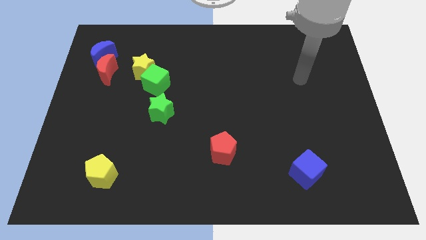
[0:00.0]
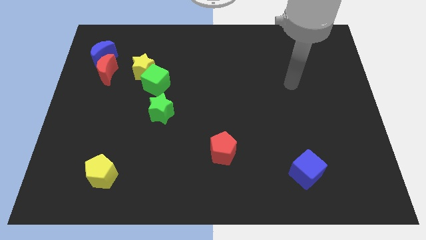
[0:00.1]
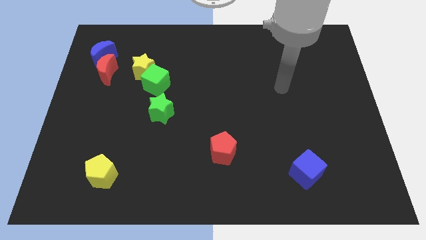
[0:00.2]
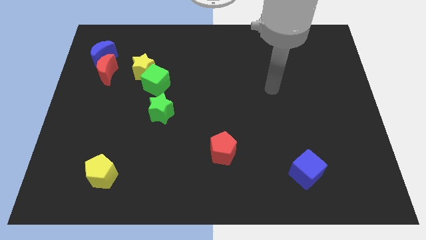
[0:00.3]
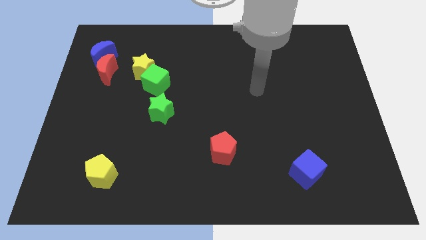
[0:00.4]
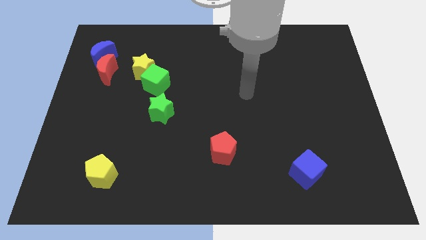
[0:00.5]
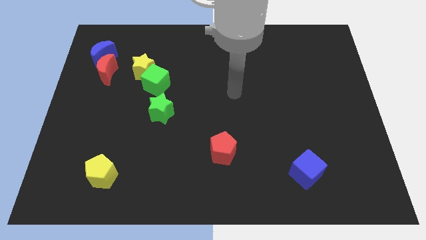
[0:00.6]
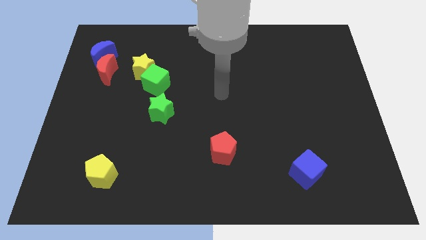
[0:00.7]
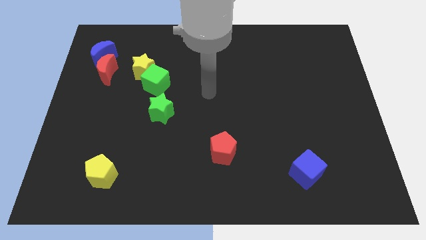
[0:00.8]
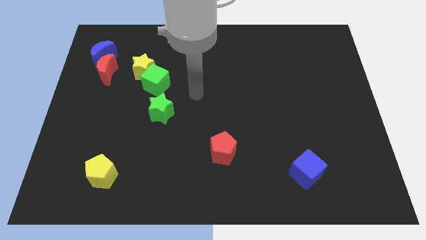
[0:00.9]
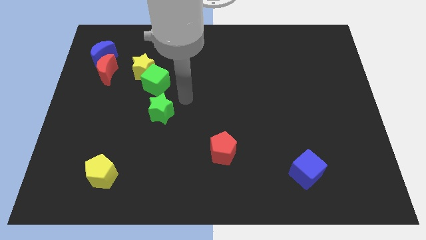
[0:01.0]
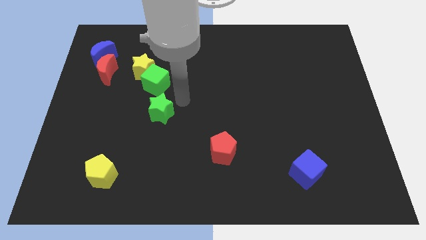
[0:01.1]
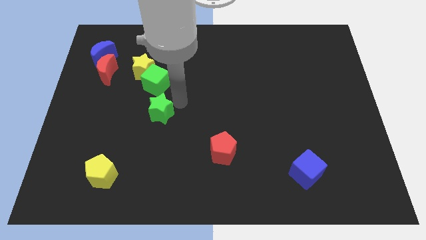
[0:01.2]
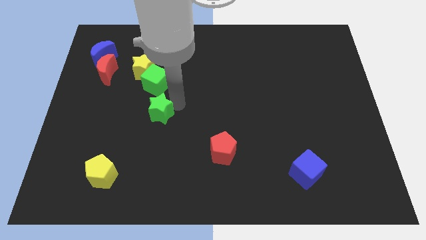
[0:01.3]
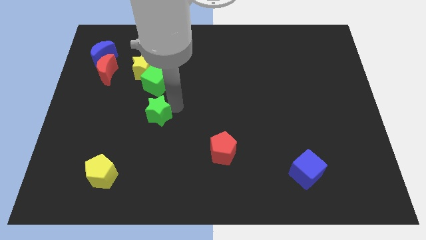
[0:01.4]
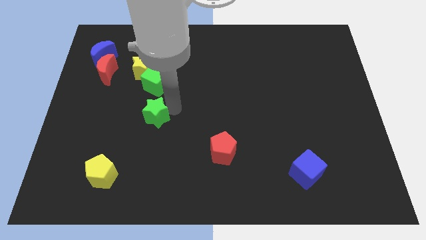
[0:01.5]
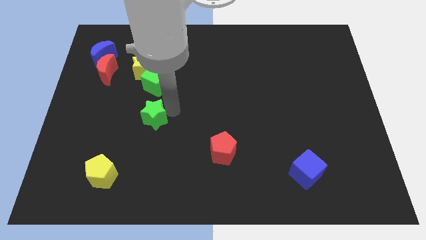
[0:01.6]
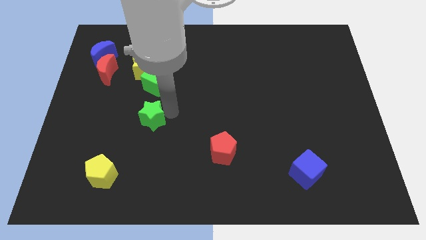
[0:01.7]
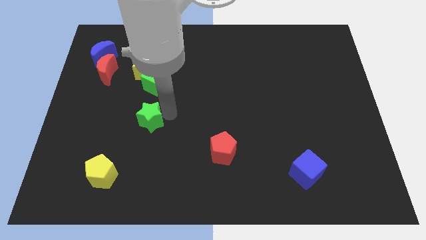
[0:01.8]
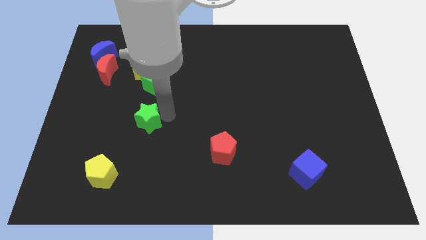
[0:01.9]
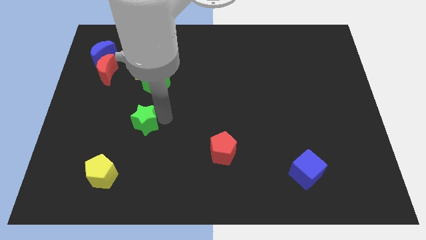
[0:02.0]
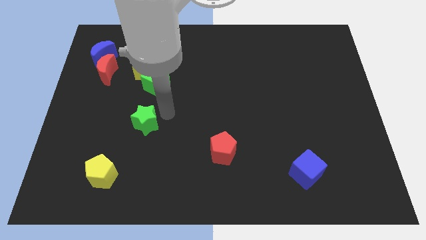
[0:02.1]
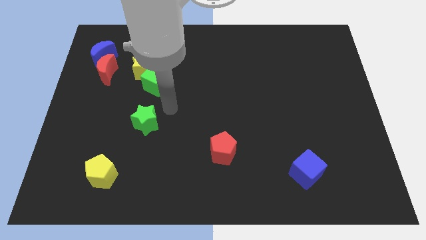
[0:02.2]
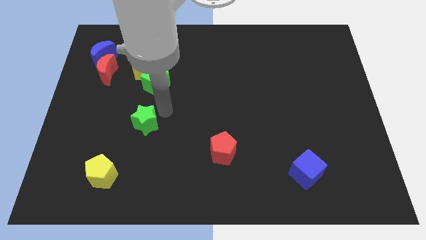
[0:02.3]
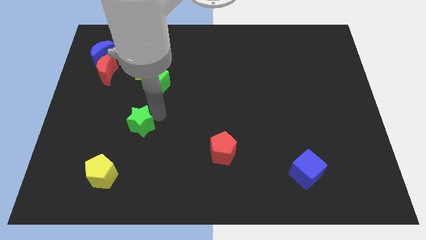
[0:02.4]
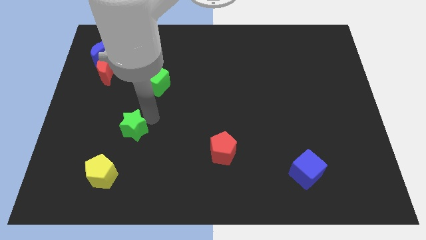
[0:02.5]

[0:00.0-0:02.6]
slightly slide the green star downwards and left

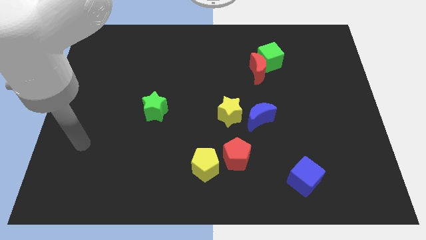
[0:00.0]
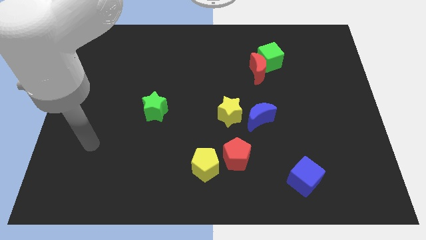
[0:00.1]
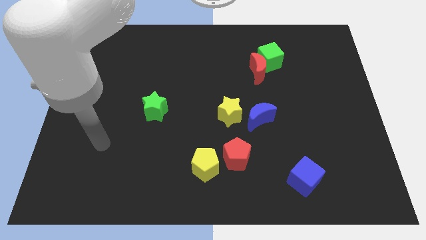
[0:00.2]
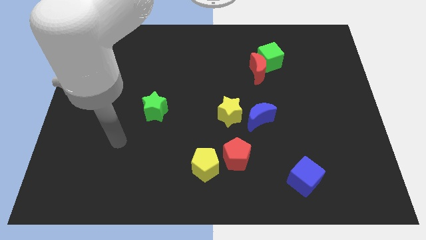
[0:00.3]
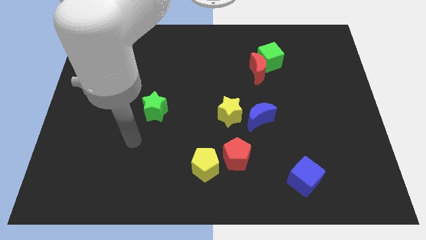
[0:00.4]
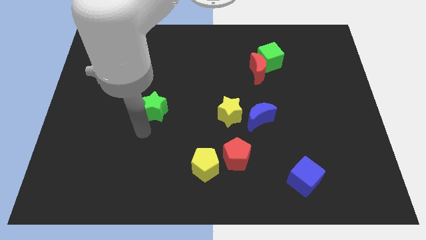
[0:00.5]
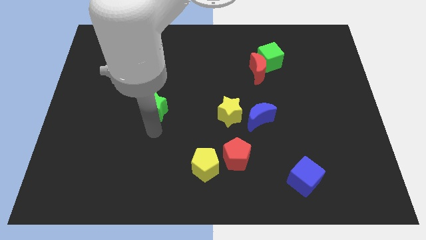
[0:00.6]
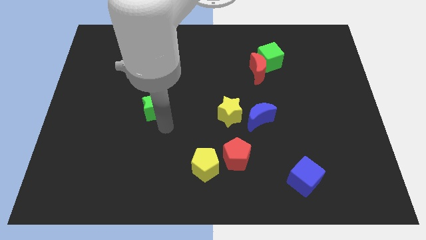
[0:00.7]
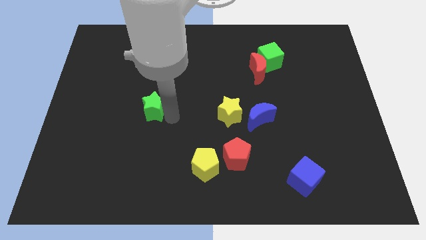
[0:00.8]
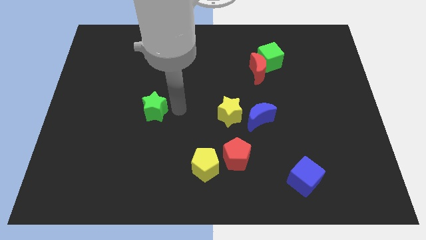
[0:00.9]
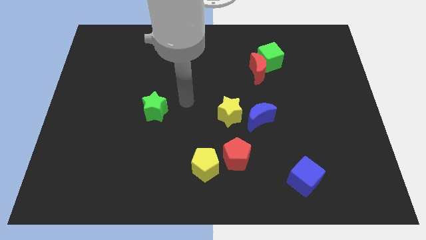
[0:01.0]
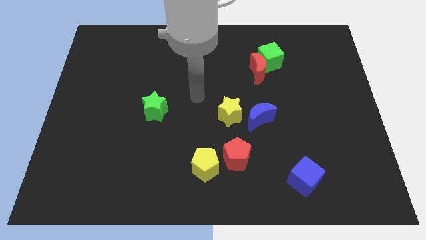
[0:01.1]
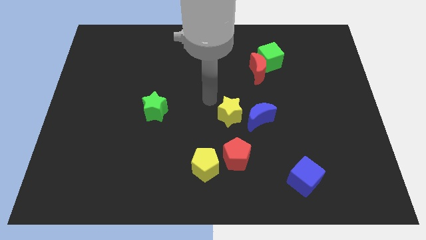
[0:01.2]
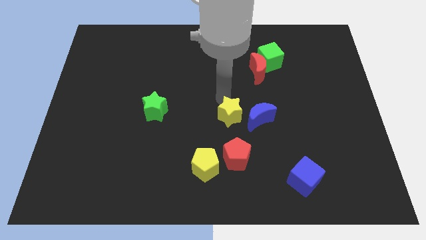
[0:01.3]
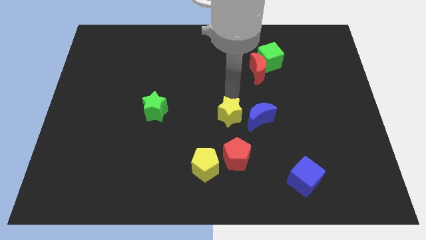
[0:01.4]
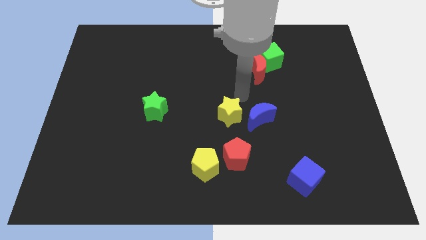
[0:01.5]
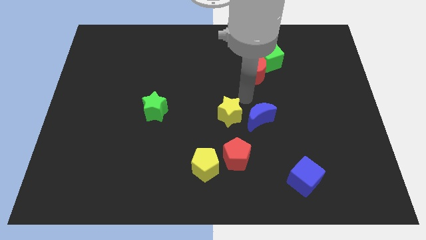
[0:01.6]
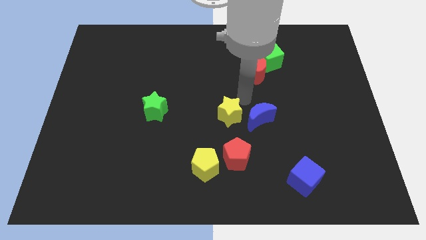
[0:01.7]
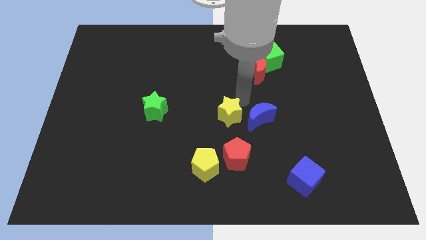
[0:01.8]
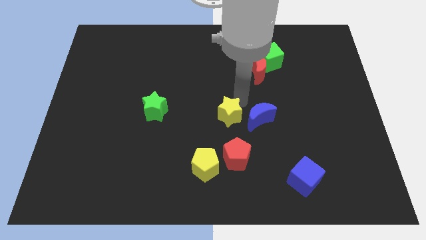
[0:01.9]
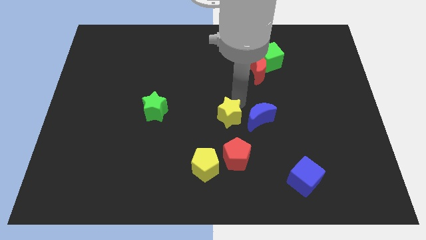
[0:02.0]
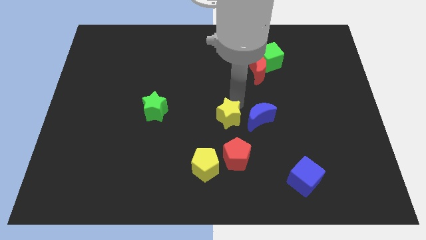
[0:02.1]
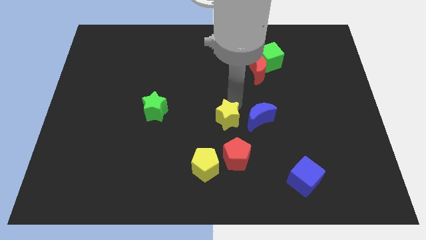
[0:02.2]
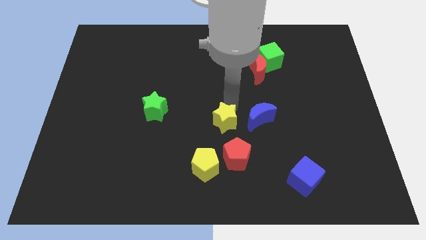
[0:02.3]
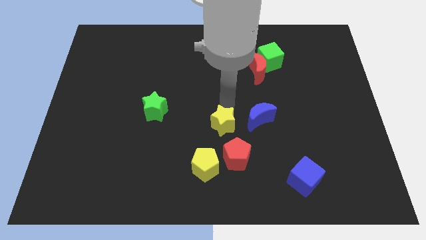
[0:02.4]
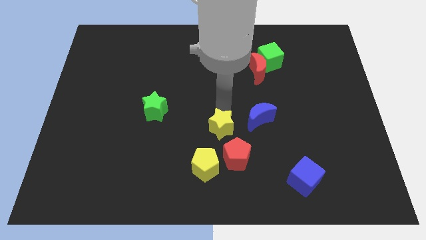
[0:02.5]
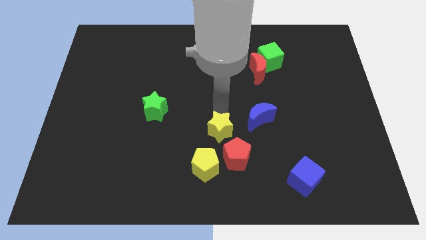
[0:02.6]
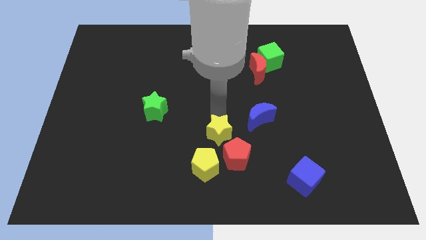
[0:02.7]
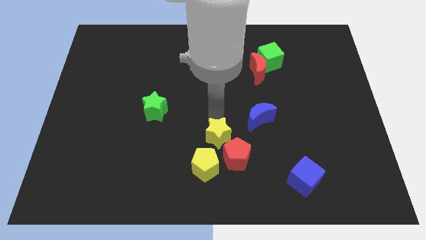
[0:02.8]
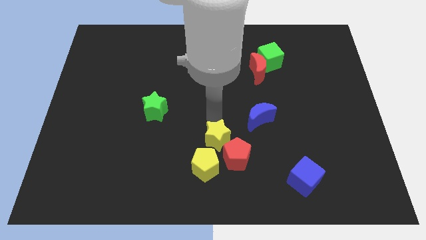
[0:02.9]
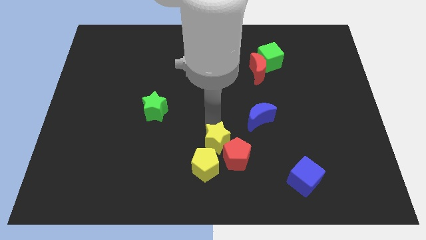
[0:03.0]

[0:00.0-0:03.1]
slightly push the yellow star down and then left

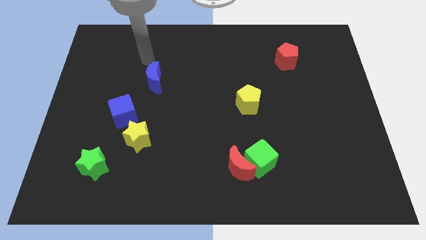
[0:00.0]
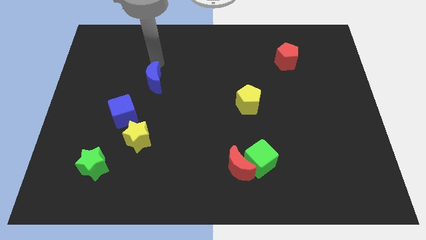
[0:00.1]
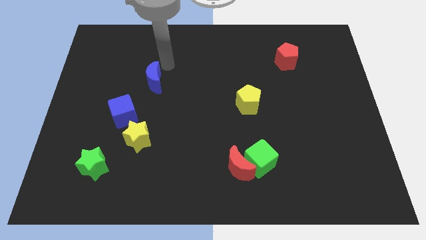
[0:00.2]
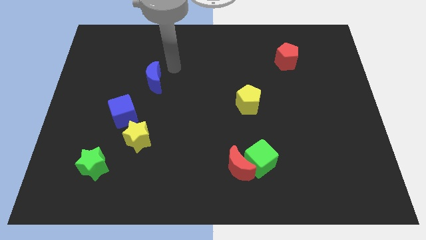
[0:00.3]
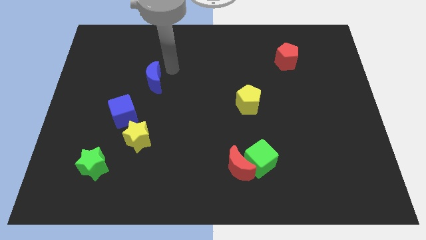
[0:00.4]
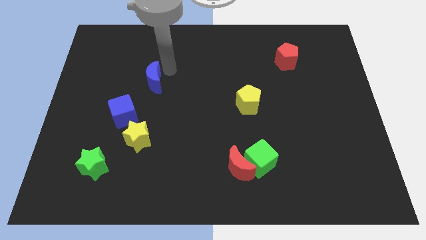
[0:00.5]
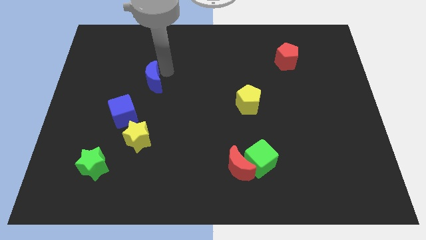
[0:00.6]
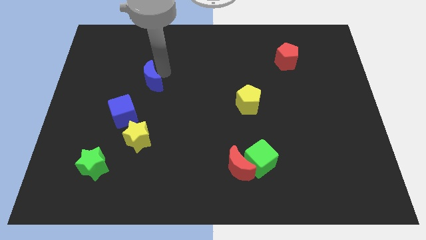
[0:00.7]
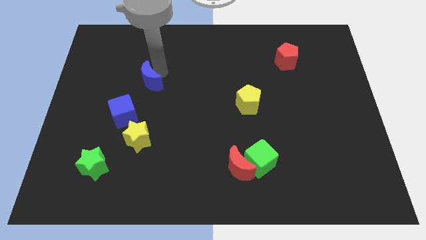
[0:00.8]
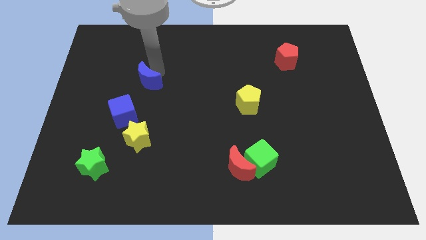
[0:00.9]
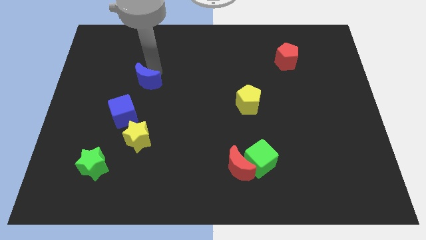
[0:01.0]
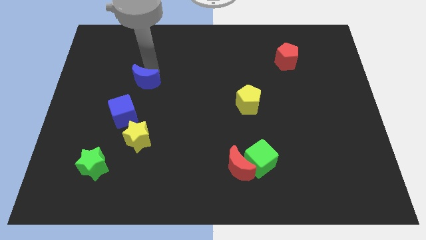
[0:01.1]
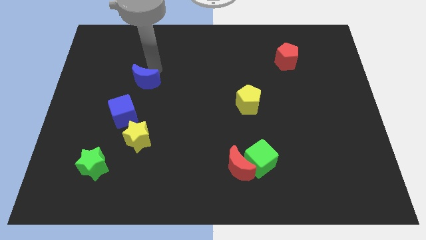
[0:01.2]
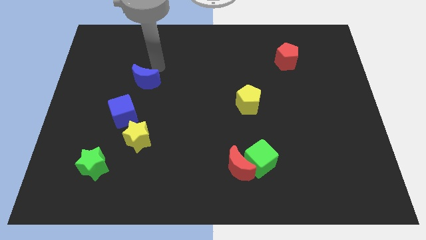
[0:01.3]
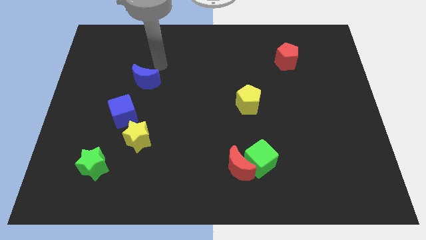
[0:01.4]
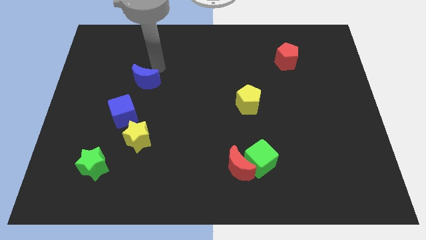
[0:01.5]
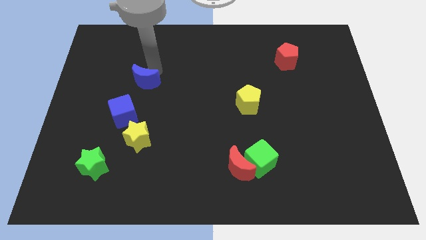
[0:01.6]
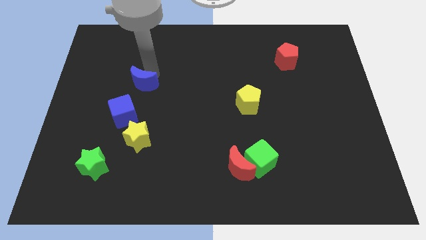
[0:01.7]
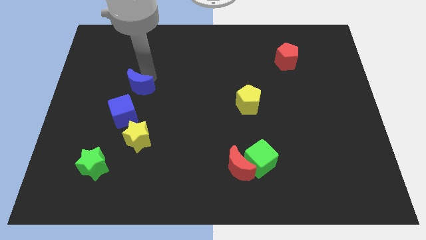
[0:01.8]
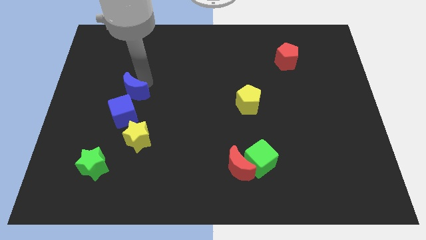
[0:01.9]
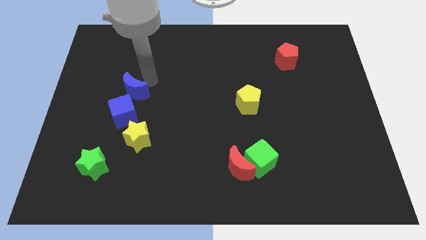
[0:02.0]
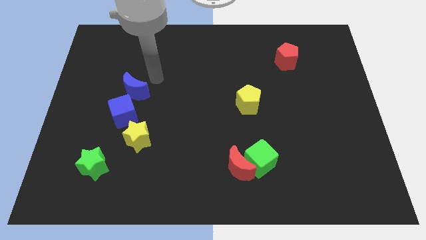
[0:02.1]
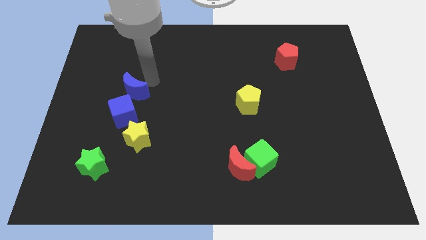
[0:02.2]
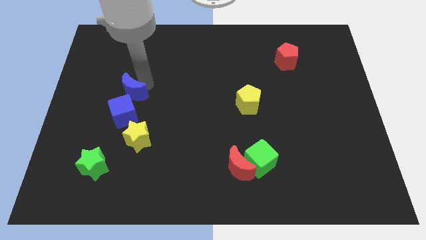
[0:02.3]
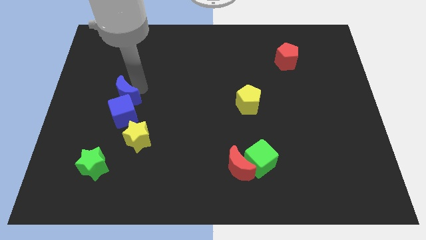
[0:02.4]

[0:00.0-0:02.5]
push the blue moon a little downwards and to the left
